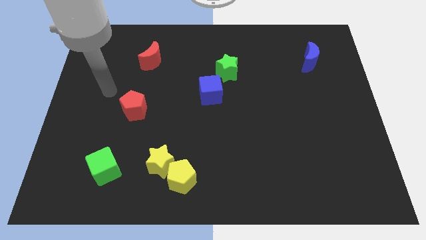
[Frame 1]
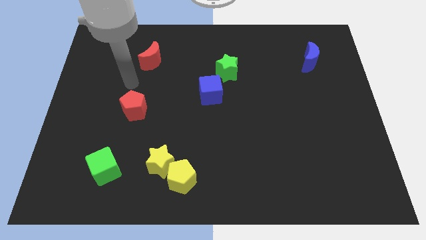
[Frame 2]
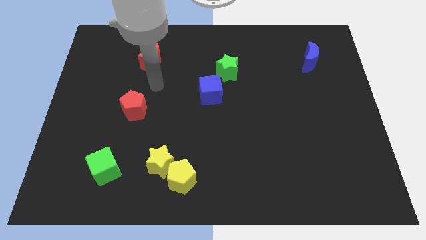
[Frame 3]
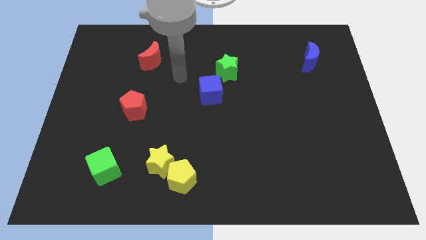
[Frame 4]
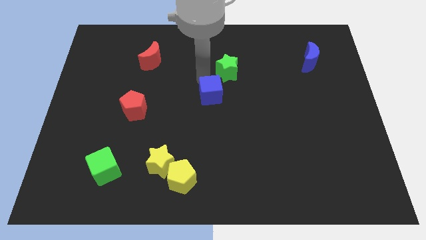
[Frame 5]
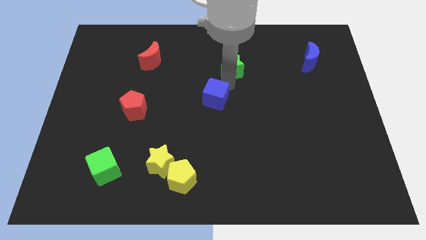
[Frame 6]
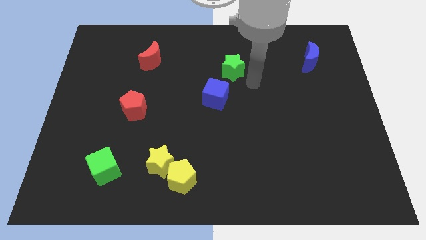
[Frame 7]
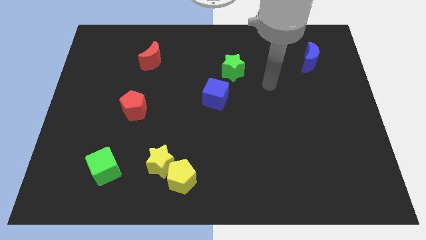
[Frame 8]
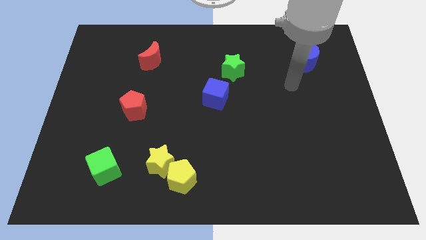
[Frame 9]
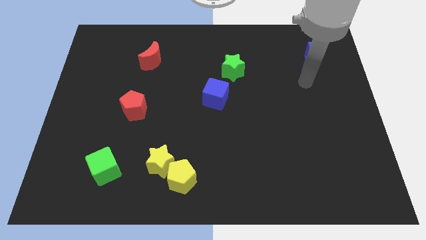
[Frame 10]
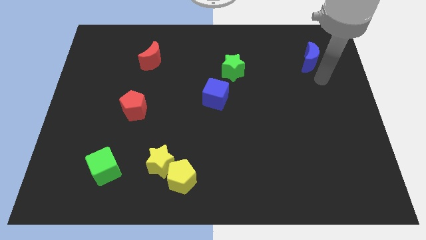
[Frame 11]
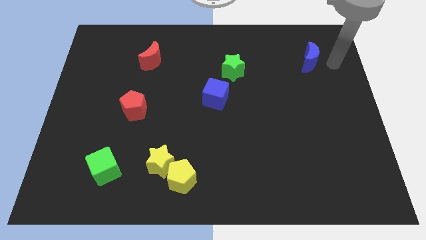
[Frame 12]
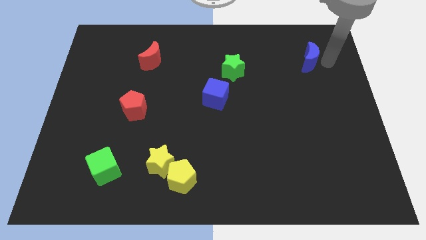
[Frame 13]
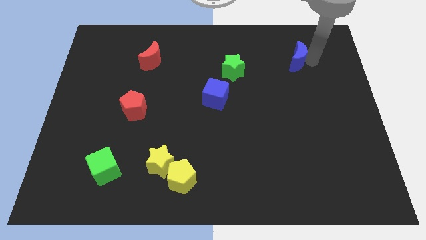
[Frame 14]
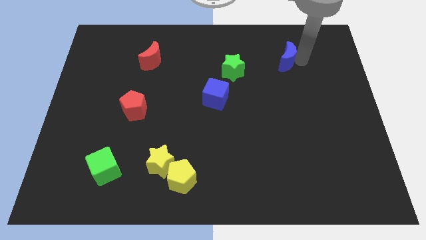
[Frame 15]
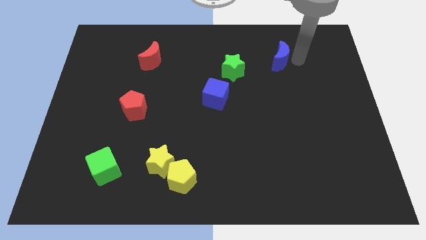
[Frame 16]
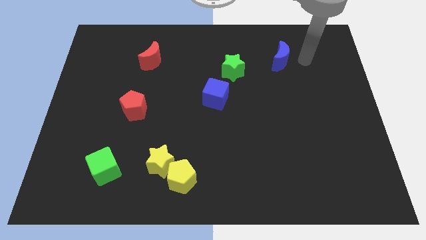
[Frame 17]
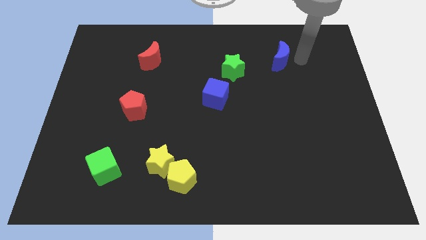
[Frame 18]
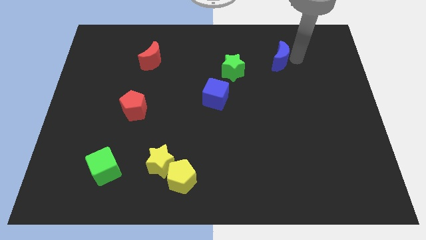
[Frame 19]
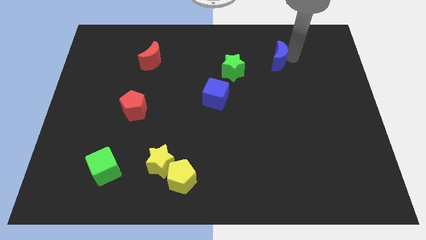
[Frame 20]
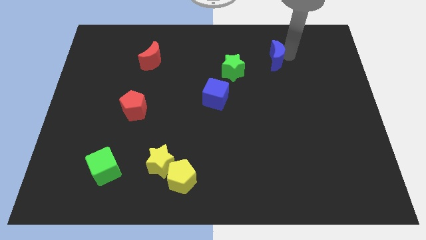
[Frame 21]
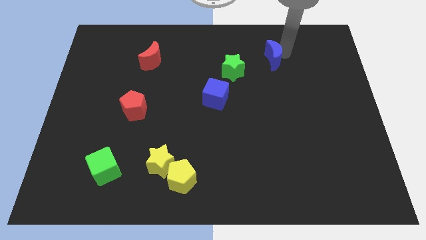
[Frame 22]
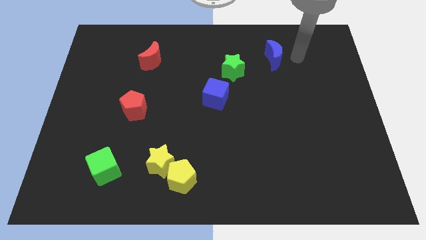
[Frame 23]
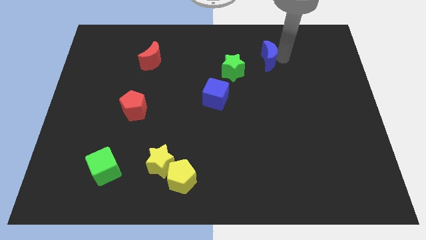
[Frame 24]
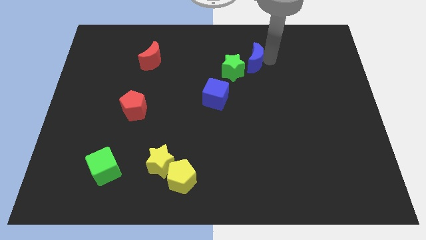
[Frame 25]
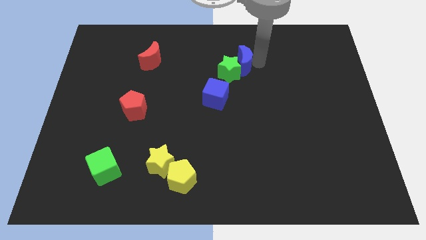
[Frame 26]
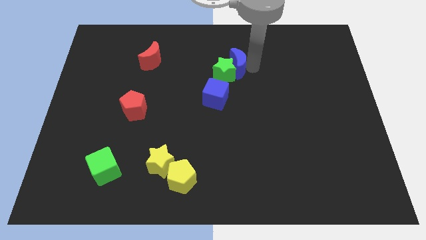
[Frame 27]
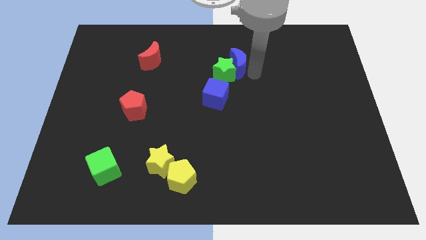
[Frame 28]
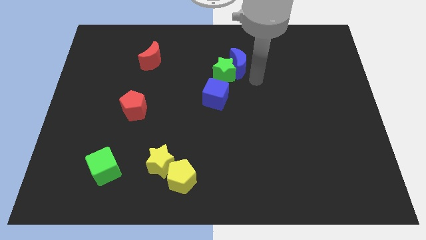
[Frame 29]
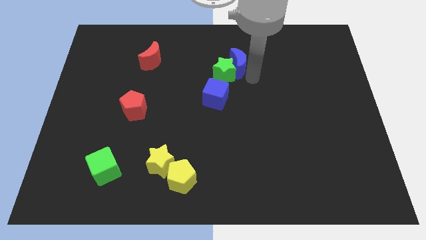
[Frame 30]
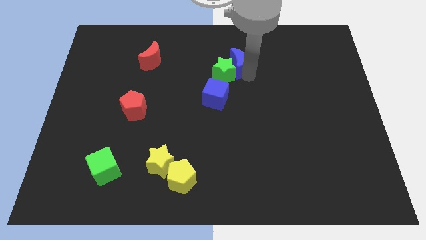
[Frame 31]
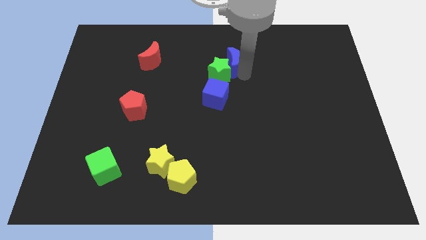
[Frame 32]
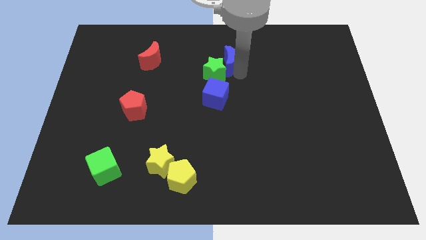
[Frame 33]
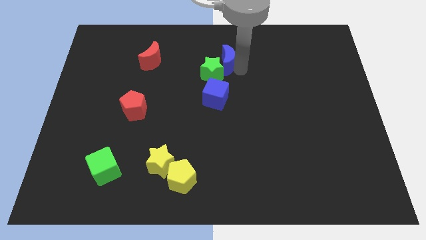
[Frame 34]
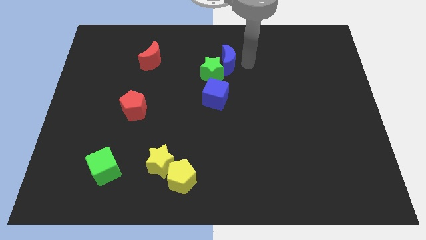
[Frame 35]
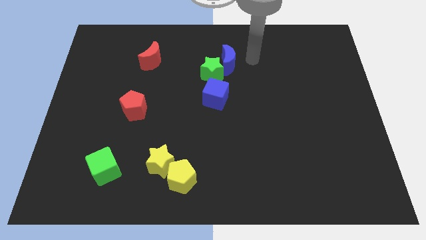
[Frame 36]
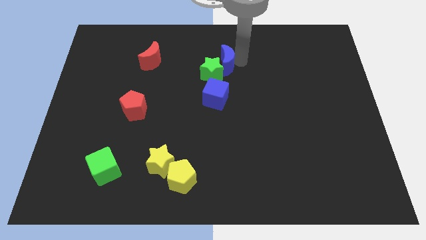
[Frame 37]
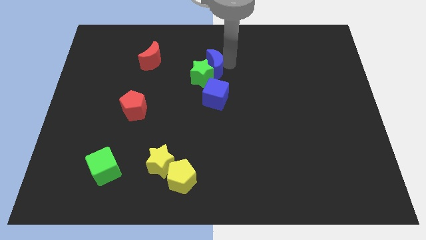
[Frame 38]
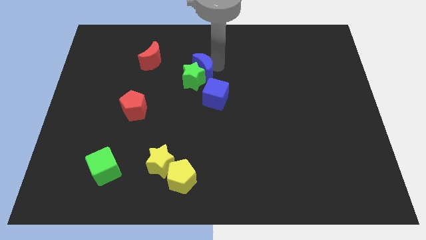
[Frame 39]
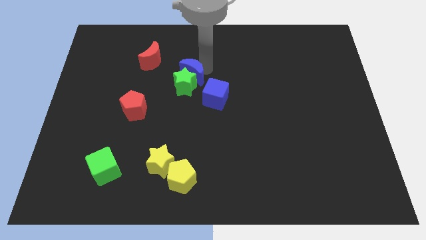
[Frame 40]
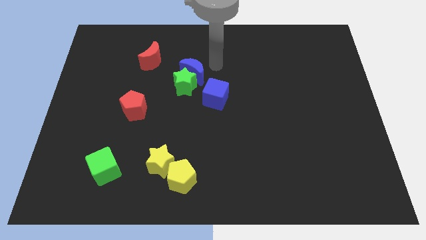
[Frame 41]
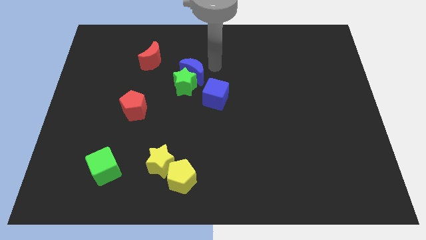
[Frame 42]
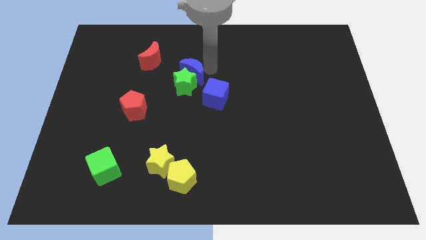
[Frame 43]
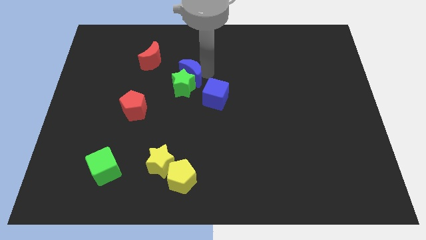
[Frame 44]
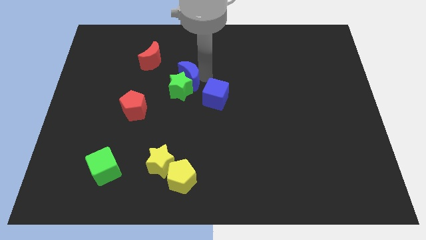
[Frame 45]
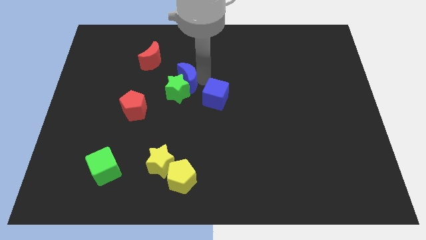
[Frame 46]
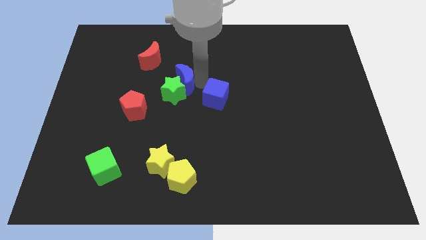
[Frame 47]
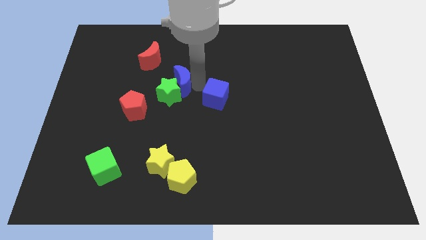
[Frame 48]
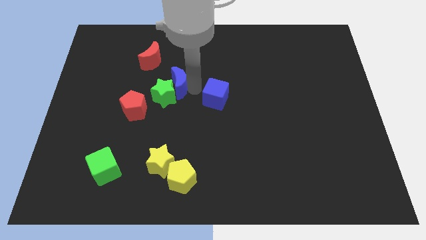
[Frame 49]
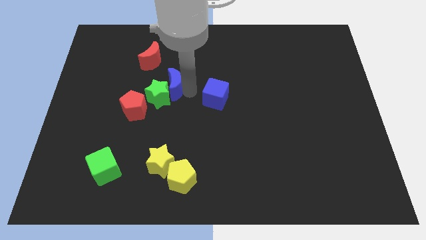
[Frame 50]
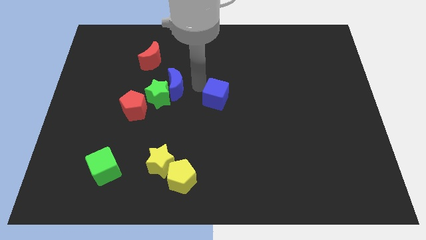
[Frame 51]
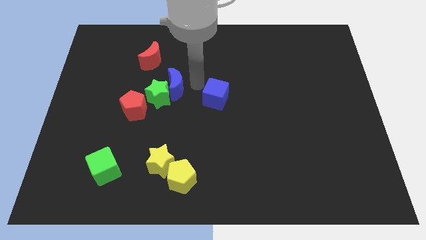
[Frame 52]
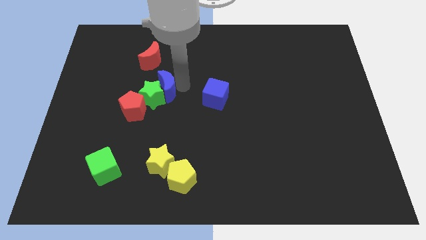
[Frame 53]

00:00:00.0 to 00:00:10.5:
move the blue moon to the bottom side of the red moon

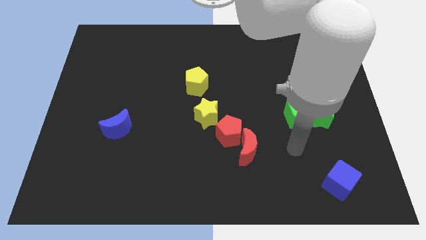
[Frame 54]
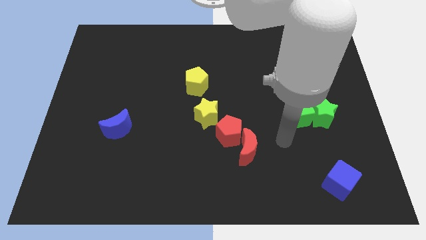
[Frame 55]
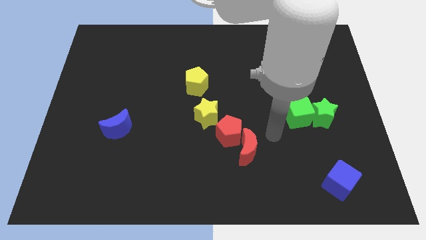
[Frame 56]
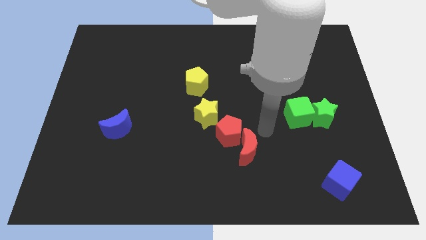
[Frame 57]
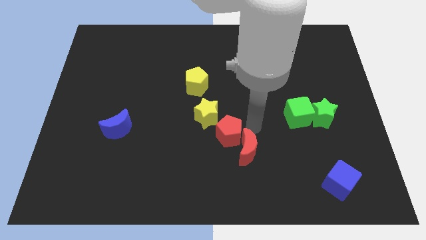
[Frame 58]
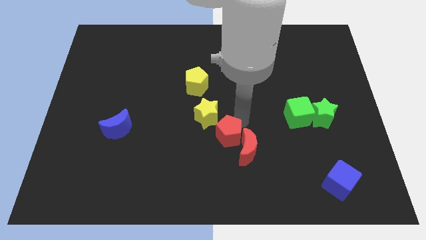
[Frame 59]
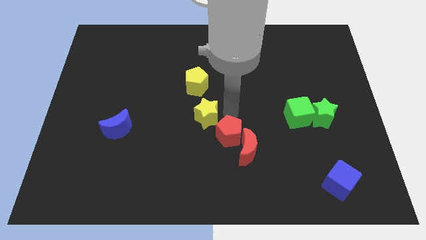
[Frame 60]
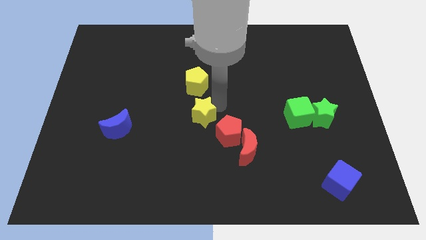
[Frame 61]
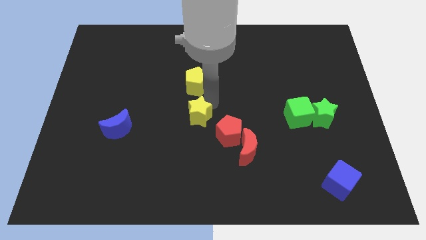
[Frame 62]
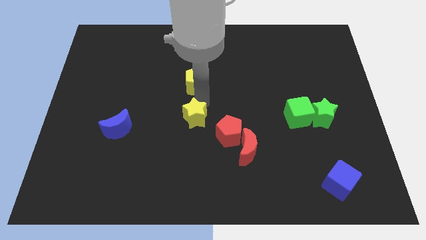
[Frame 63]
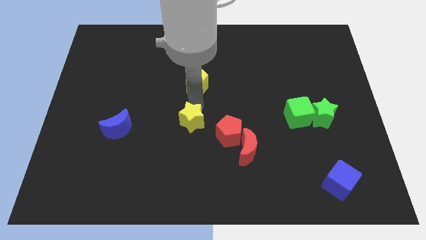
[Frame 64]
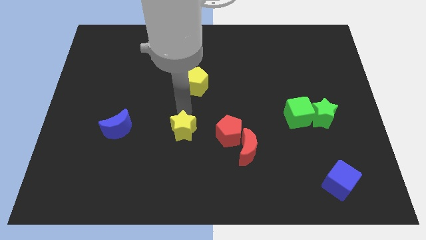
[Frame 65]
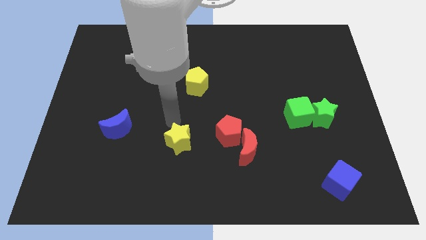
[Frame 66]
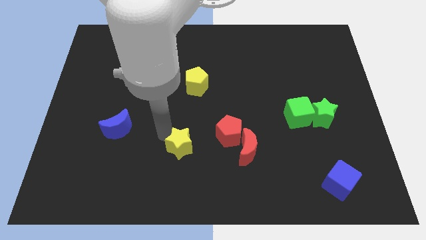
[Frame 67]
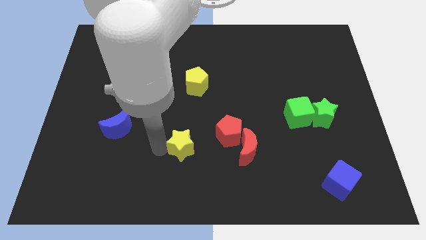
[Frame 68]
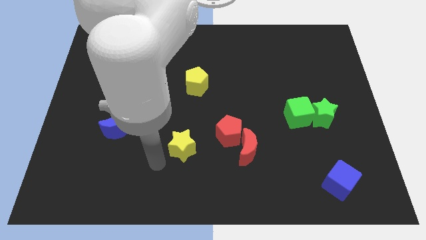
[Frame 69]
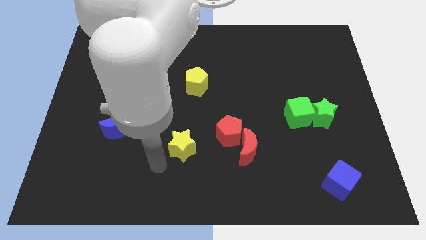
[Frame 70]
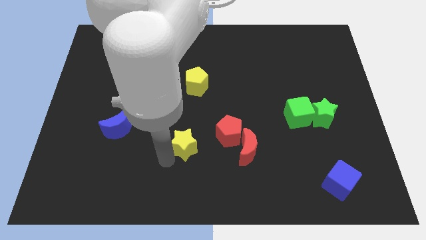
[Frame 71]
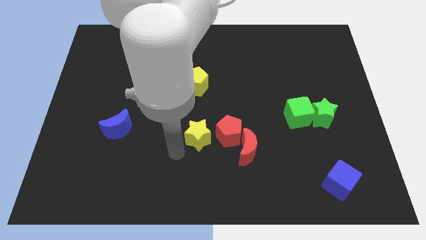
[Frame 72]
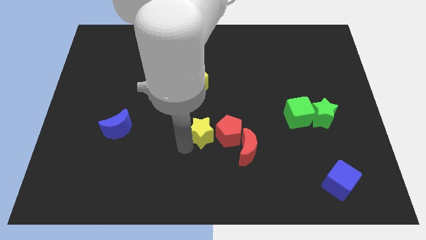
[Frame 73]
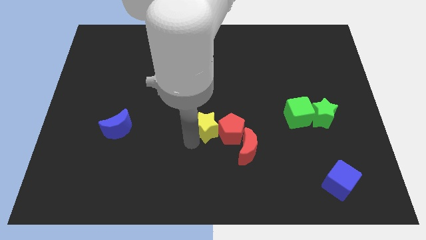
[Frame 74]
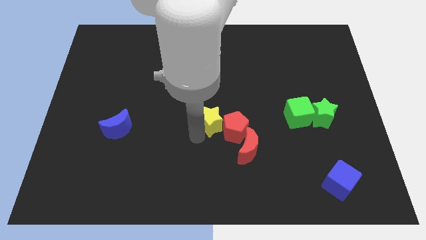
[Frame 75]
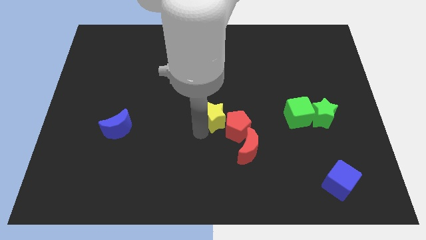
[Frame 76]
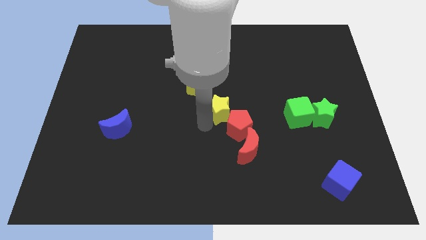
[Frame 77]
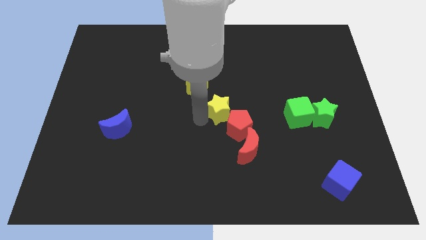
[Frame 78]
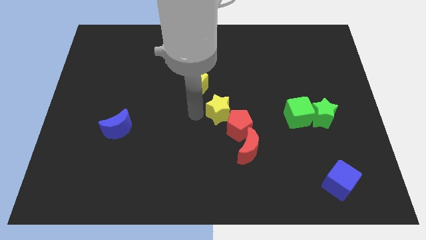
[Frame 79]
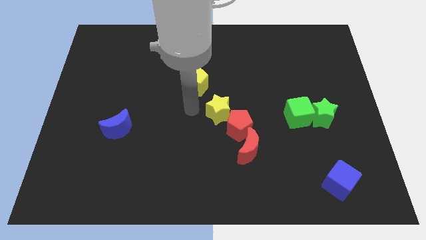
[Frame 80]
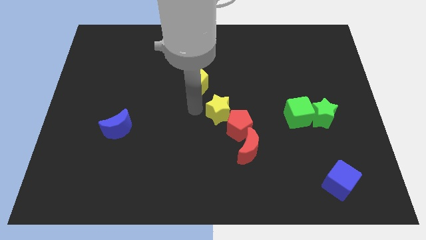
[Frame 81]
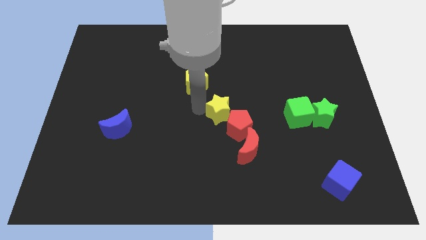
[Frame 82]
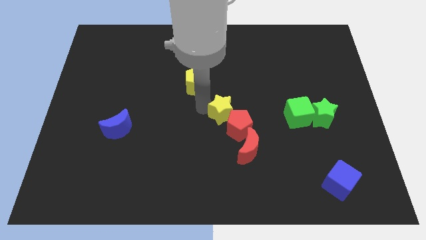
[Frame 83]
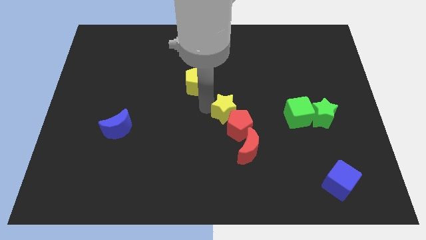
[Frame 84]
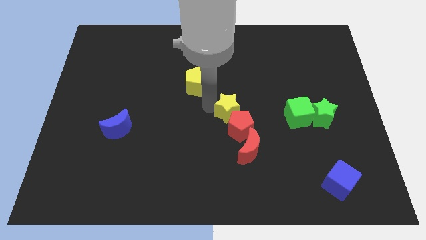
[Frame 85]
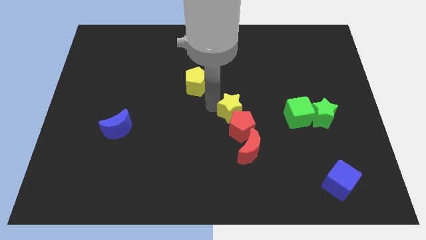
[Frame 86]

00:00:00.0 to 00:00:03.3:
slide the yellow star left of the green cube

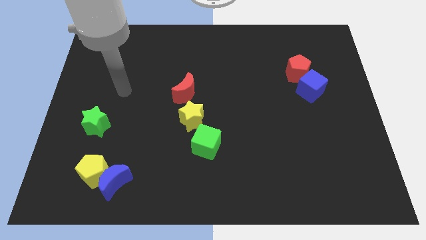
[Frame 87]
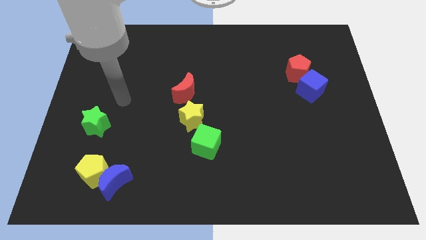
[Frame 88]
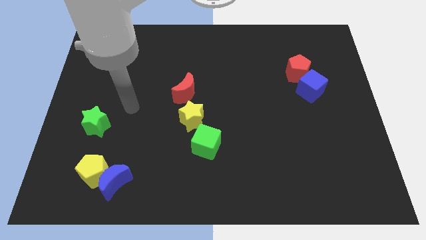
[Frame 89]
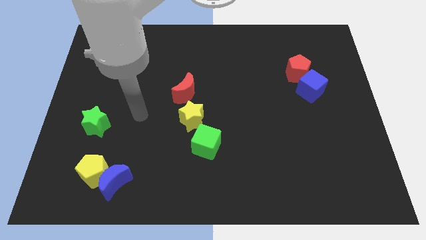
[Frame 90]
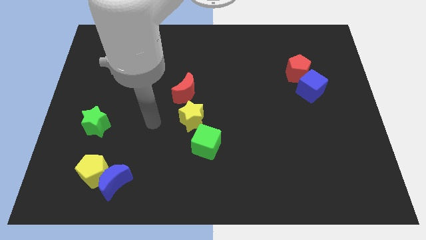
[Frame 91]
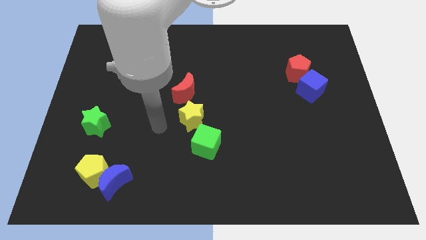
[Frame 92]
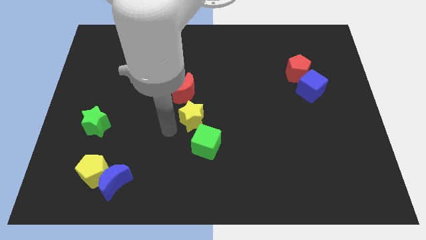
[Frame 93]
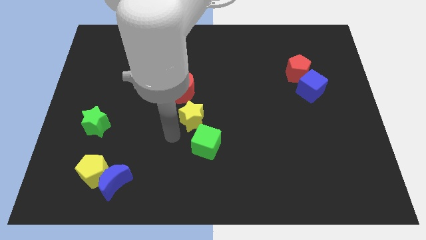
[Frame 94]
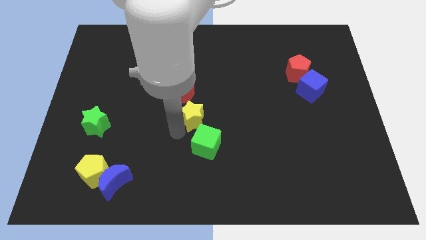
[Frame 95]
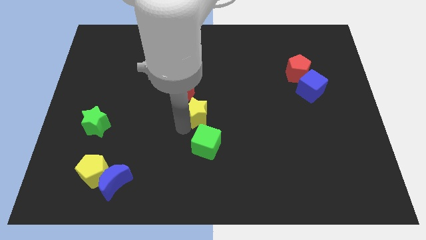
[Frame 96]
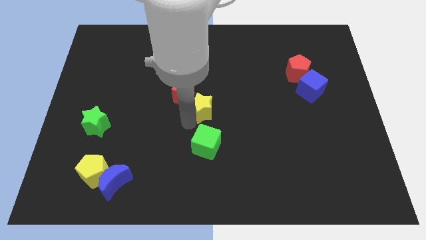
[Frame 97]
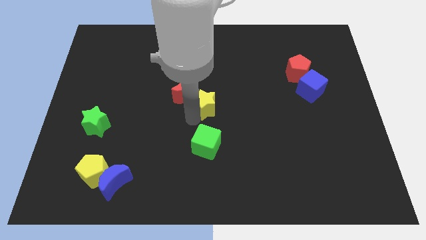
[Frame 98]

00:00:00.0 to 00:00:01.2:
put the yellow star to the right side of the red moon
